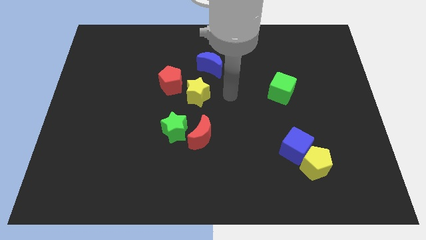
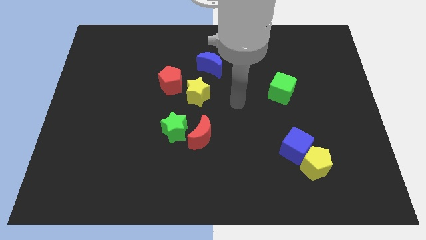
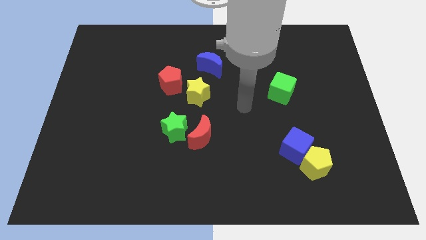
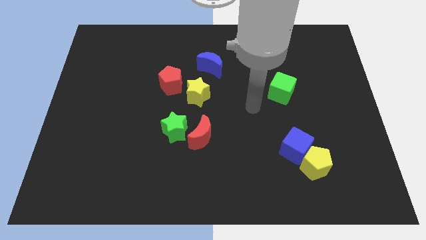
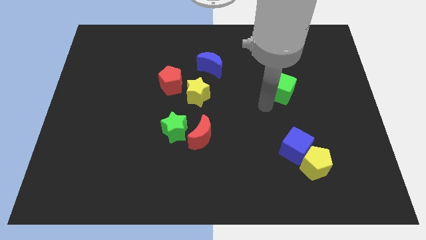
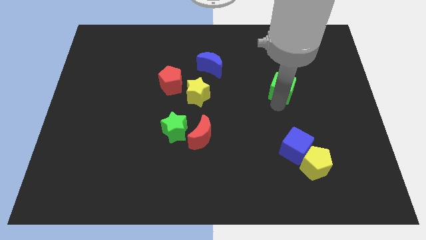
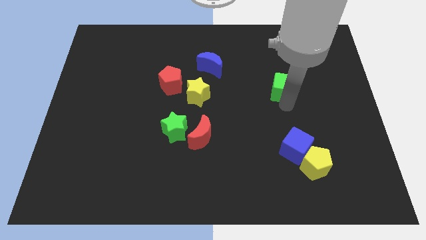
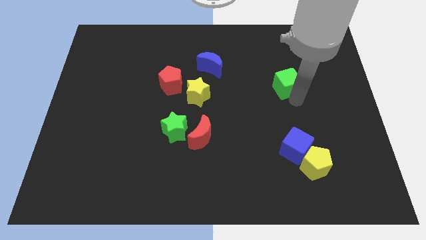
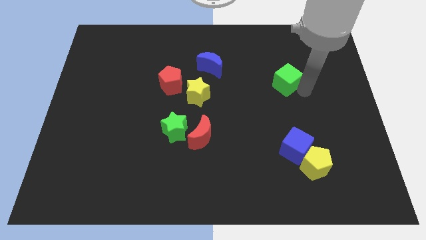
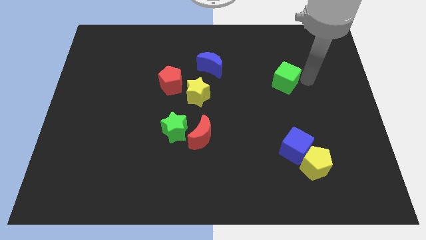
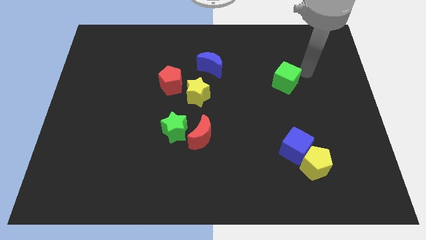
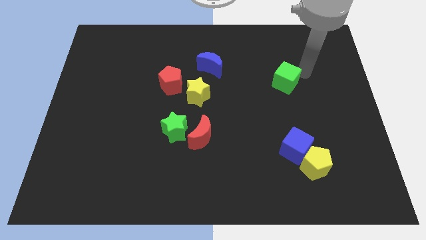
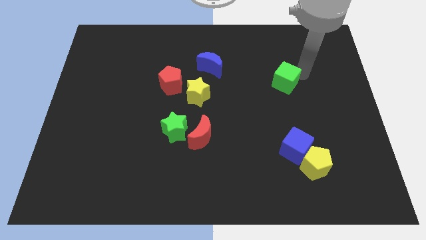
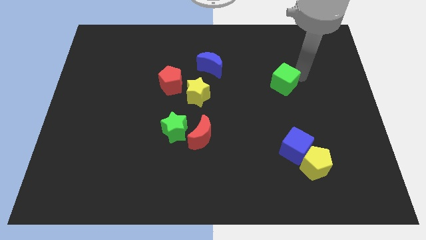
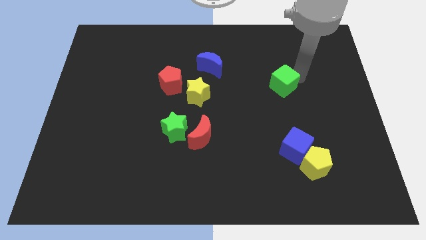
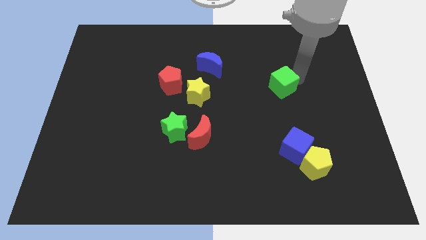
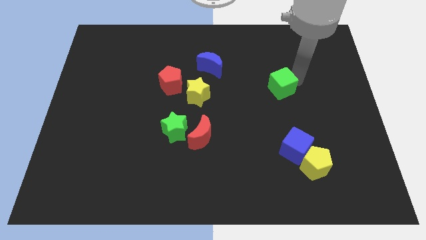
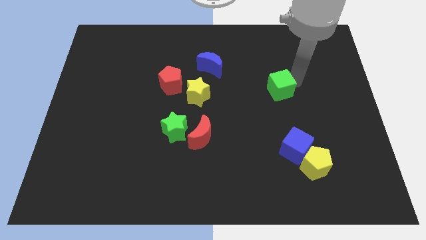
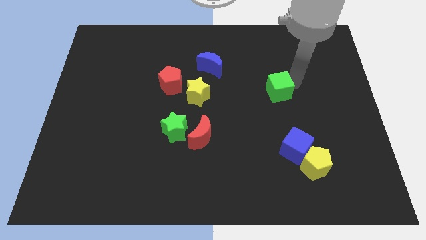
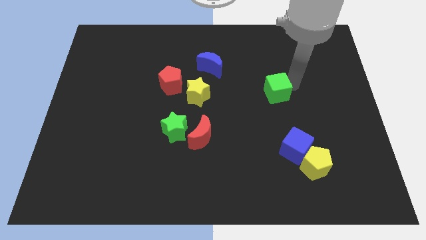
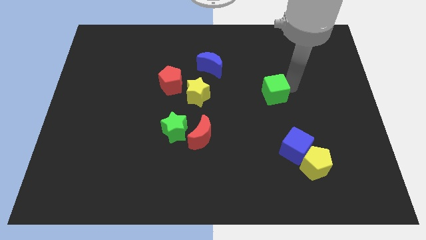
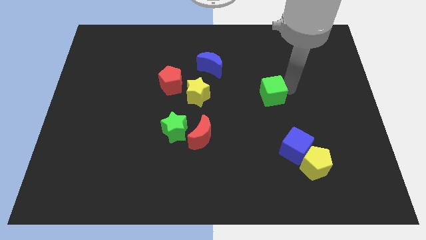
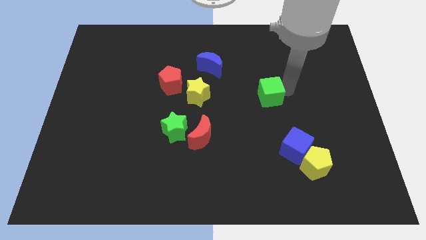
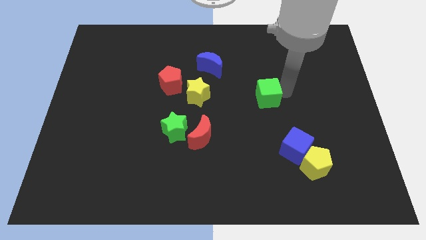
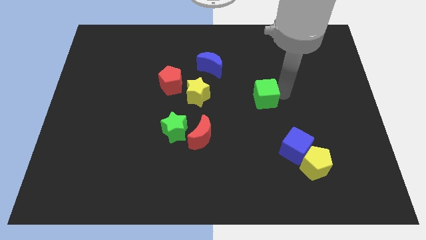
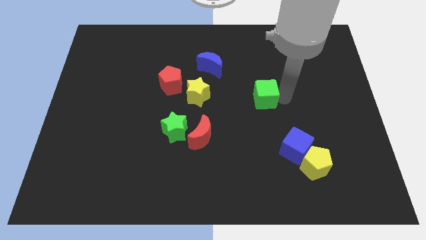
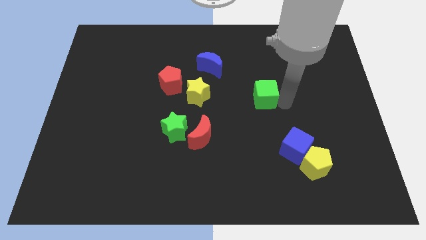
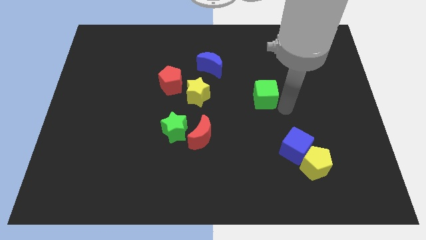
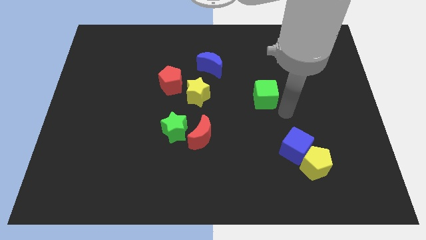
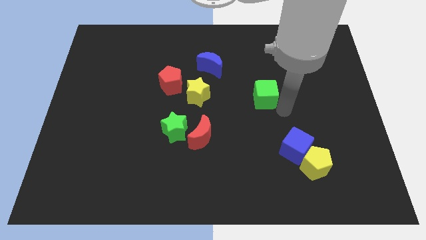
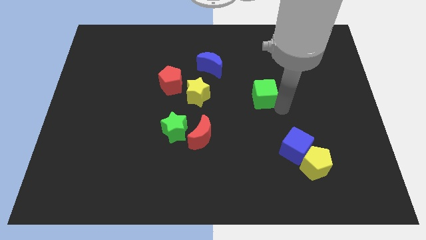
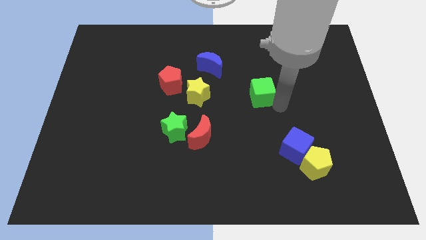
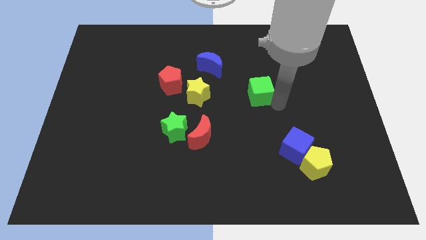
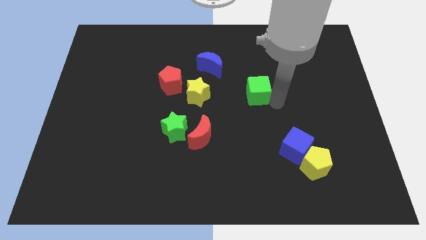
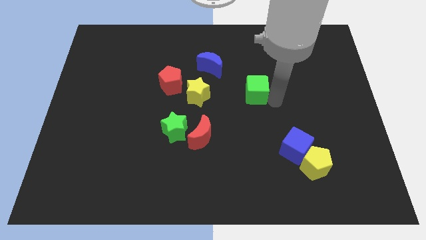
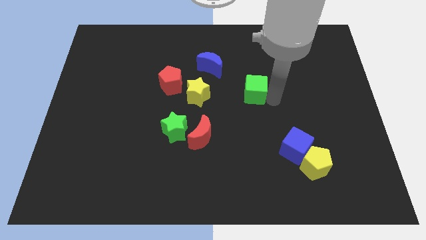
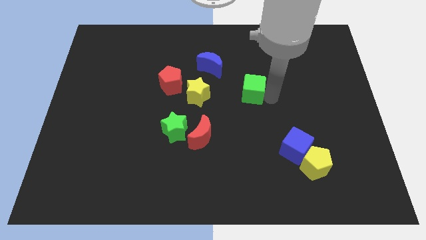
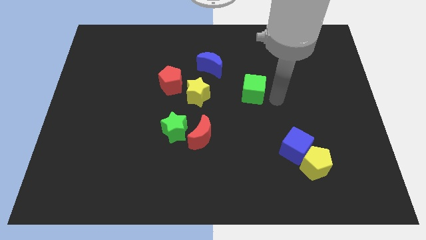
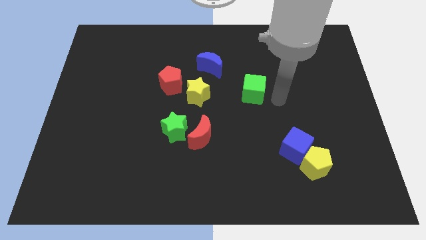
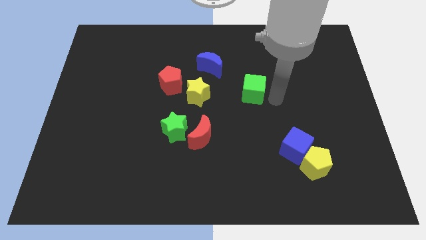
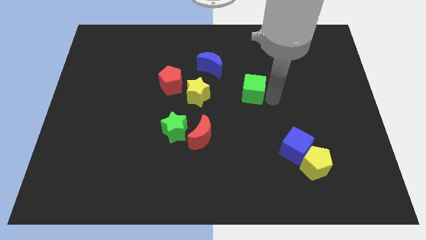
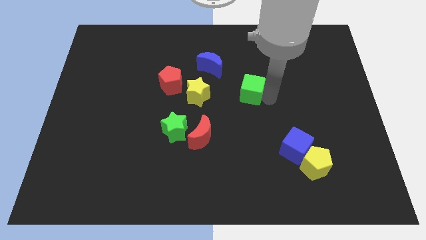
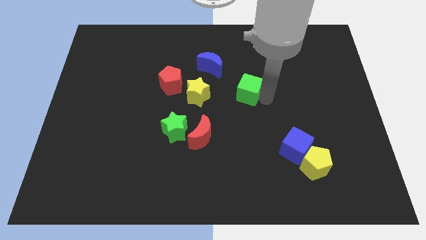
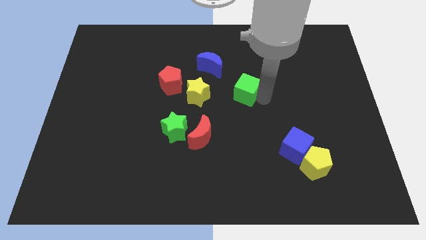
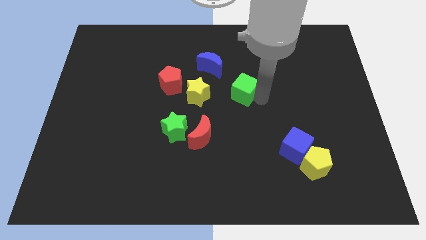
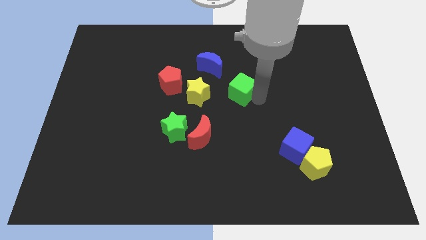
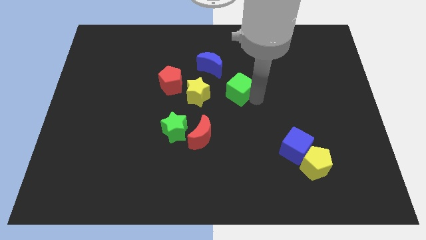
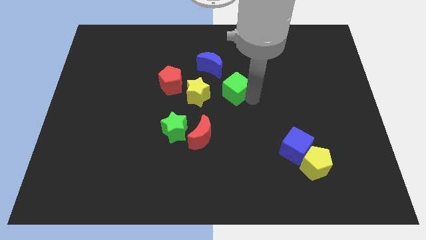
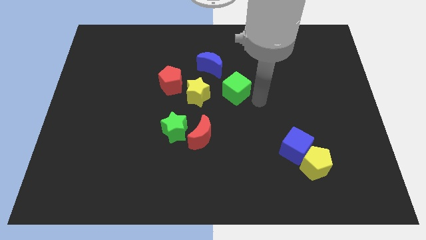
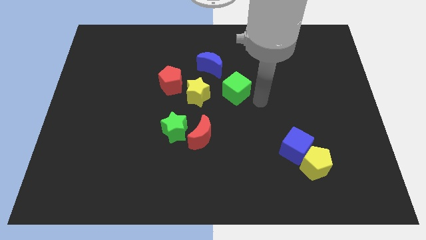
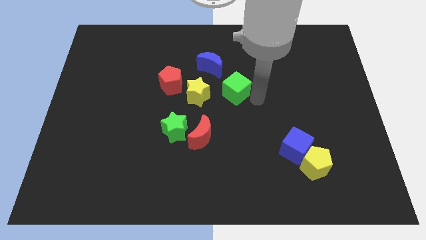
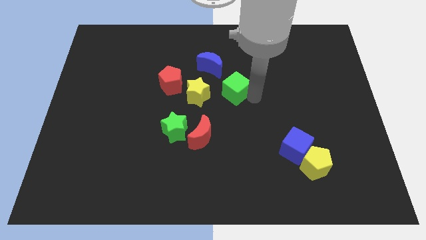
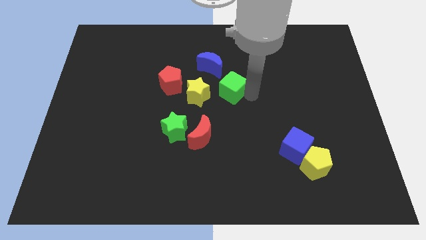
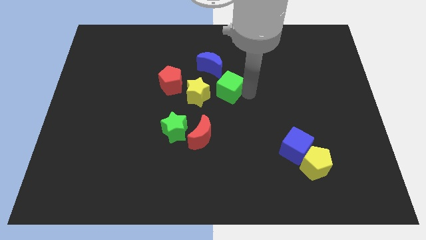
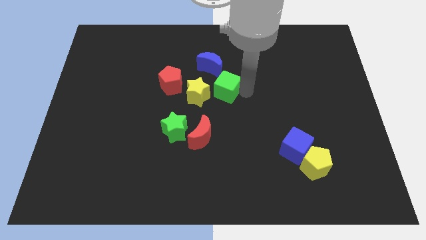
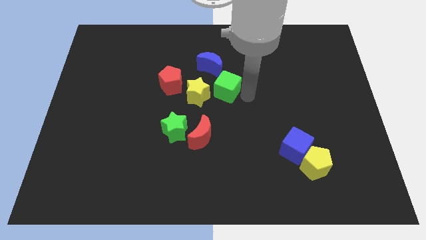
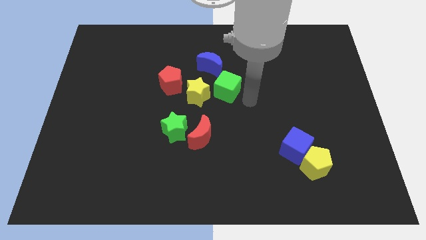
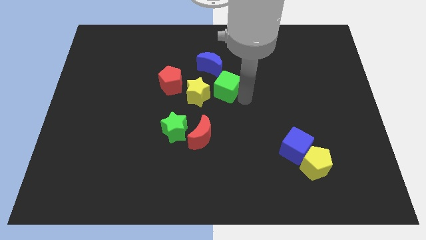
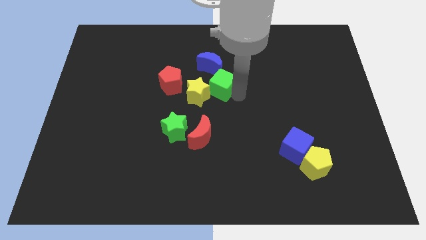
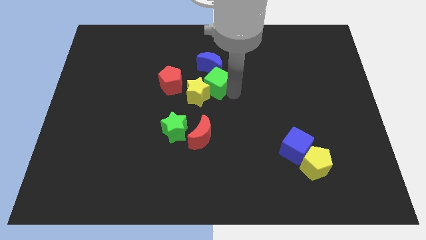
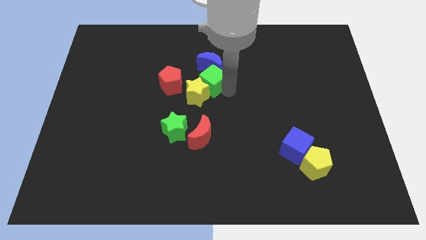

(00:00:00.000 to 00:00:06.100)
put the green cube to the bottom left side of the blue moon

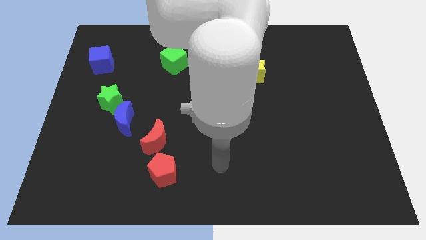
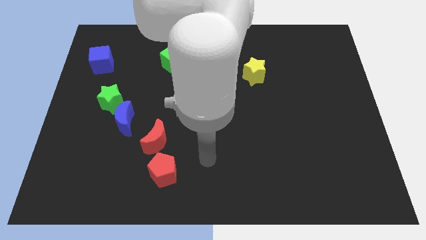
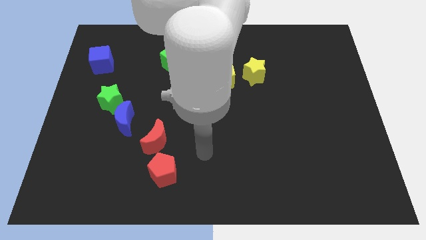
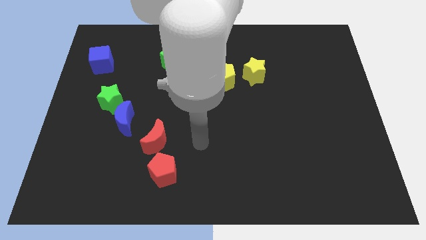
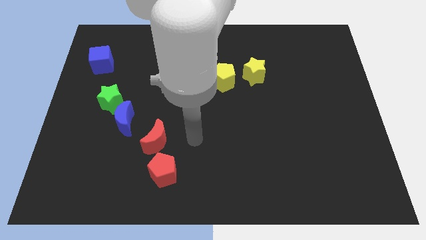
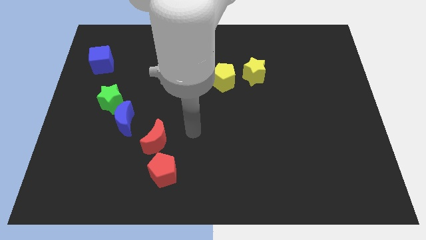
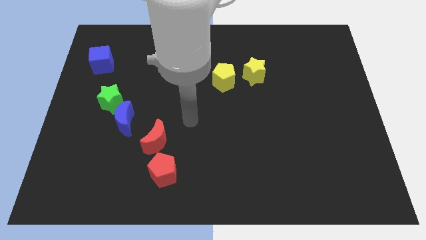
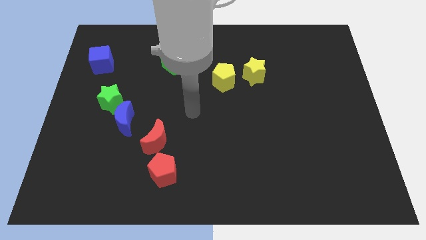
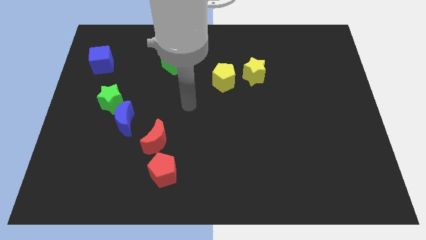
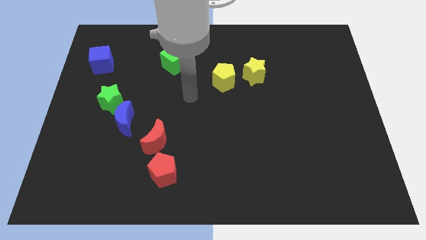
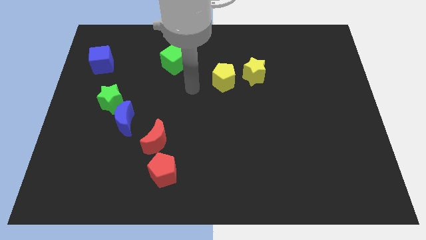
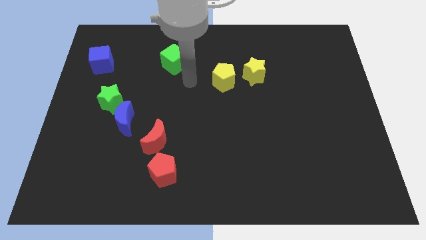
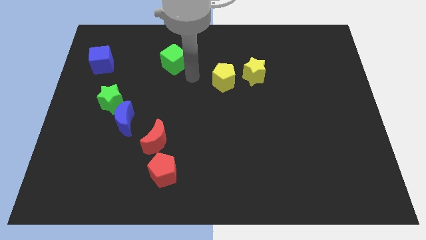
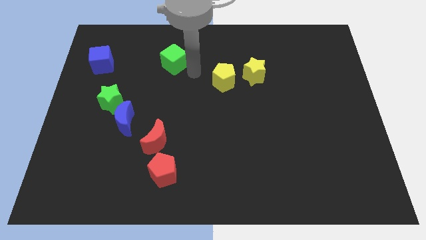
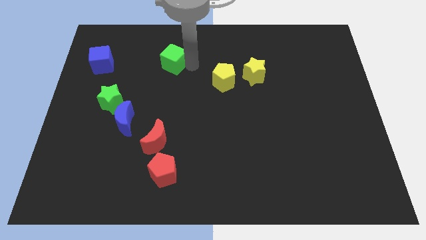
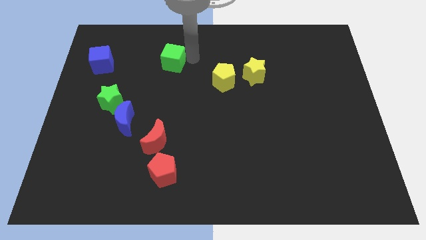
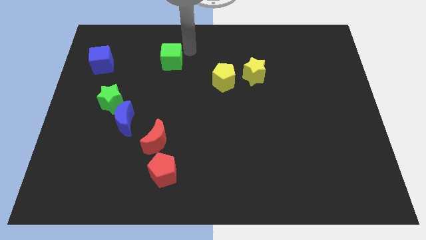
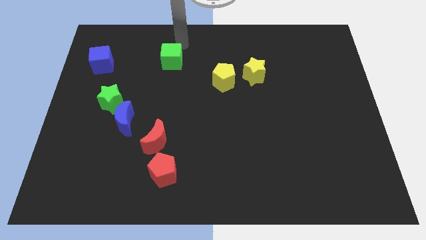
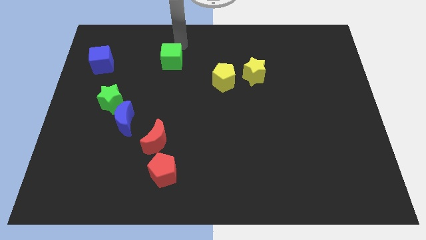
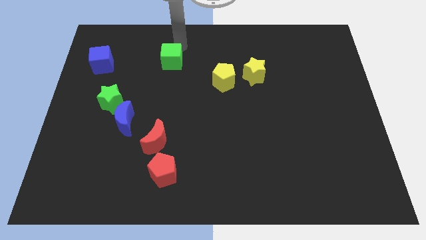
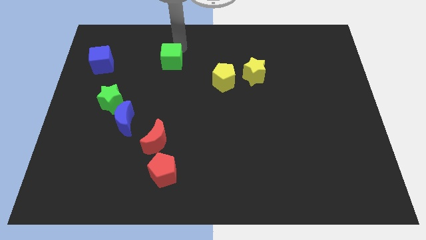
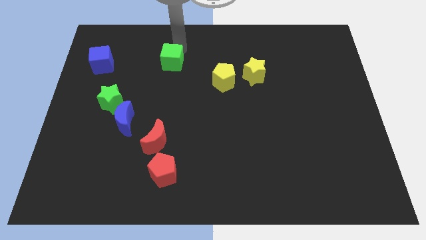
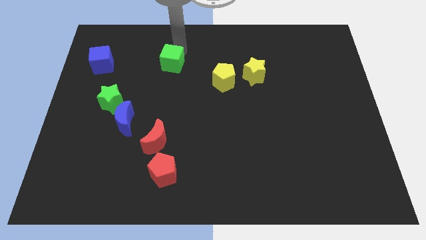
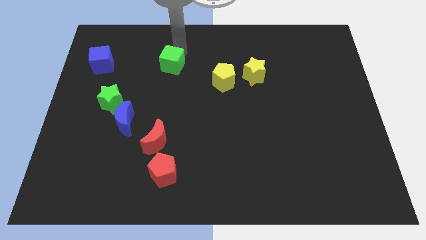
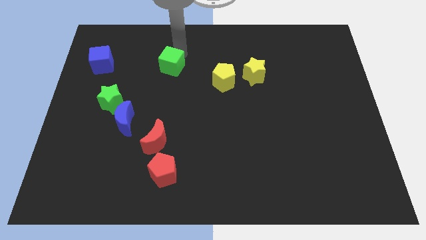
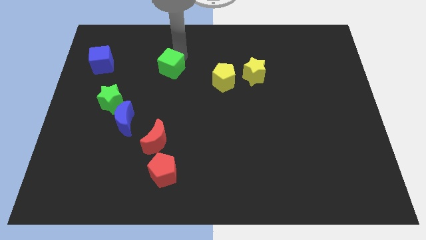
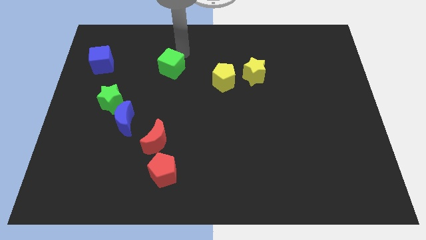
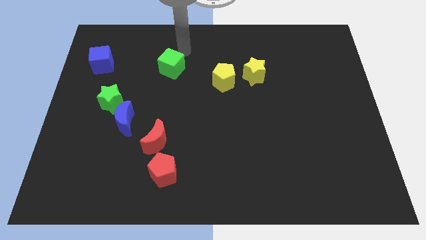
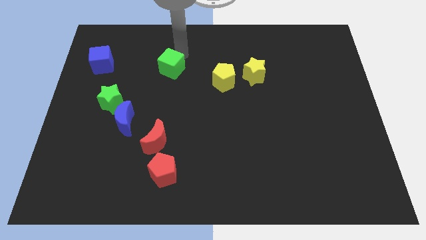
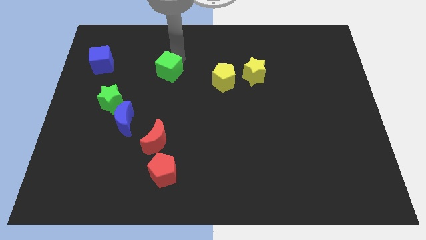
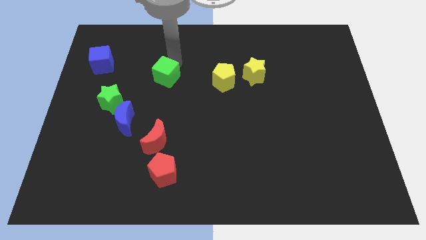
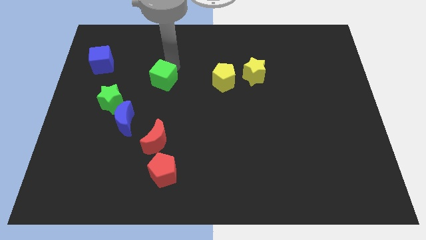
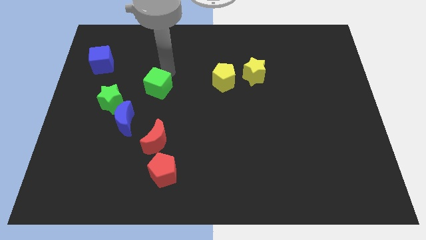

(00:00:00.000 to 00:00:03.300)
push the green cube right of the green star
